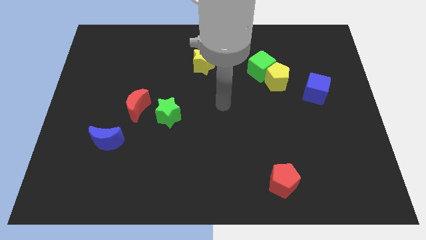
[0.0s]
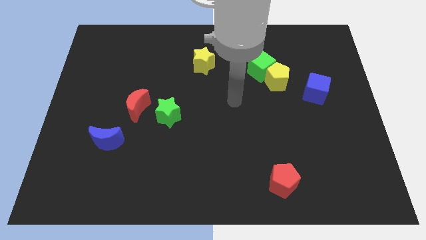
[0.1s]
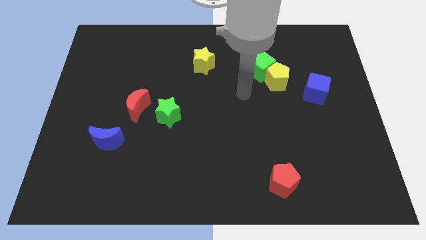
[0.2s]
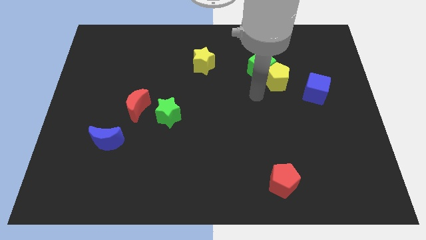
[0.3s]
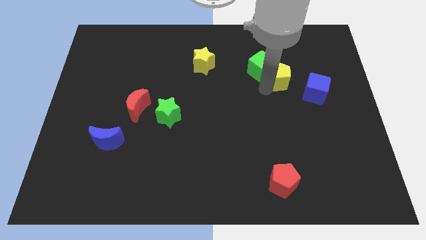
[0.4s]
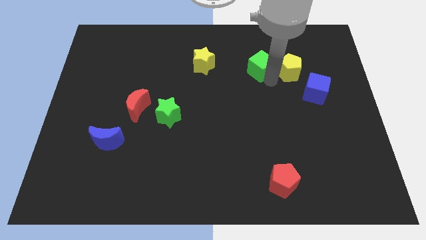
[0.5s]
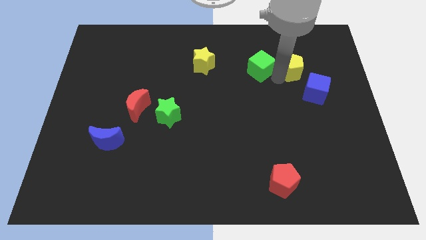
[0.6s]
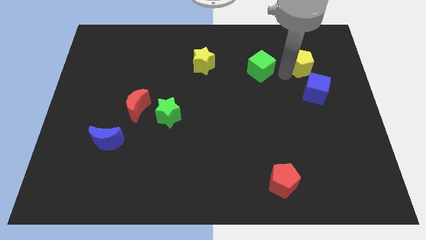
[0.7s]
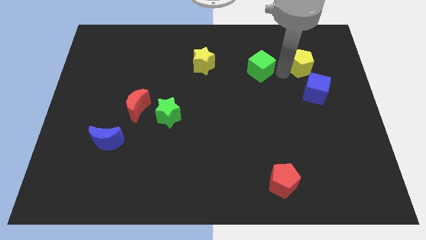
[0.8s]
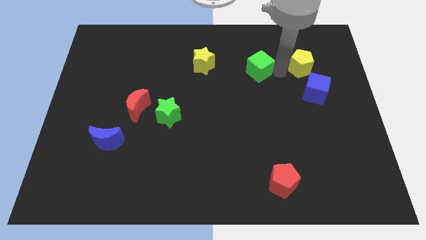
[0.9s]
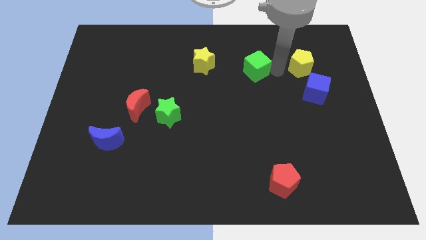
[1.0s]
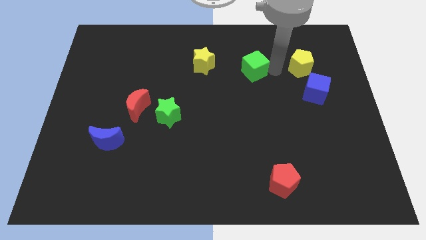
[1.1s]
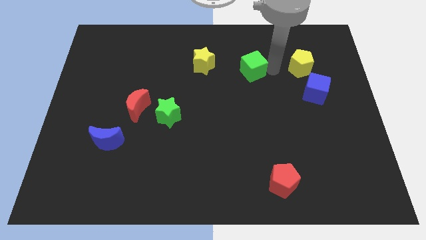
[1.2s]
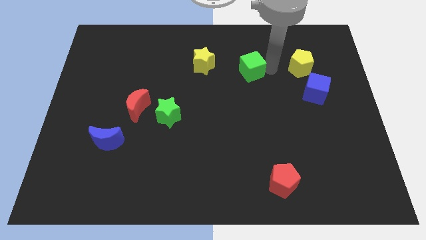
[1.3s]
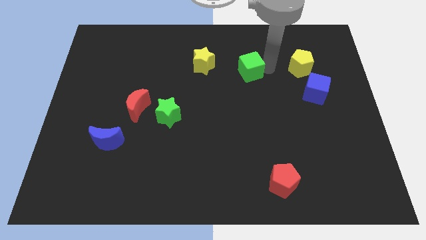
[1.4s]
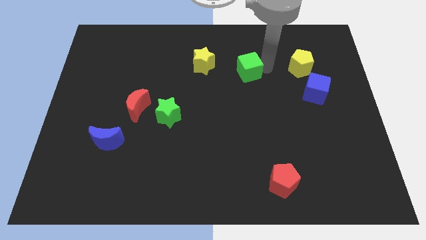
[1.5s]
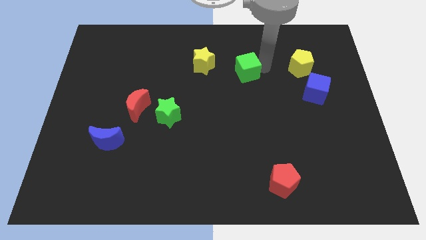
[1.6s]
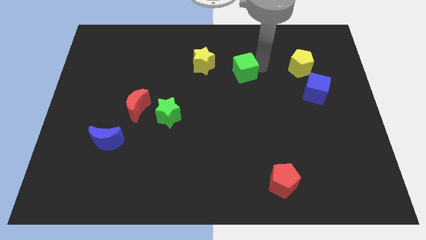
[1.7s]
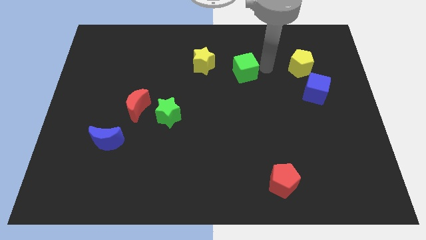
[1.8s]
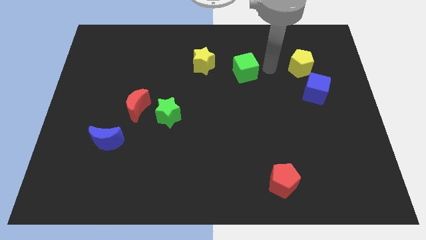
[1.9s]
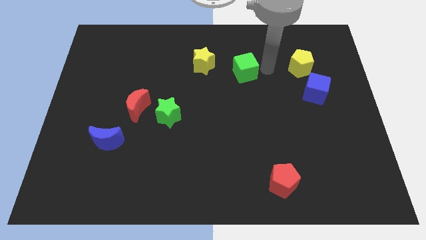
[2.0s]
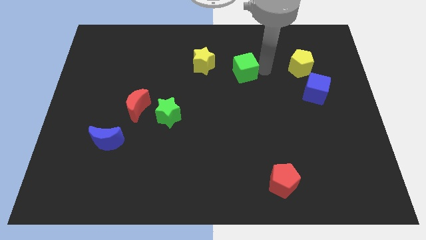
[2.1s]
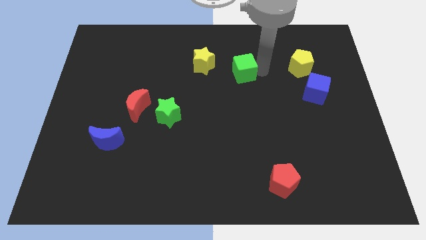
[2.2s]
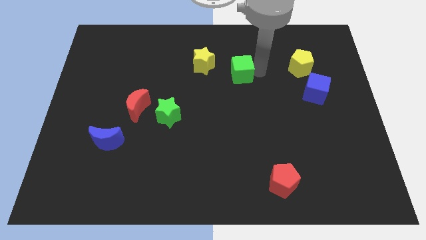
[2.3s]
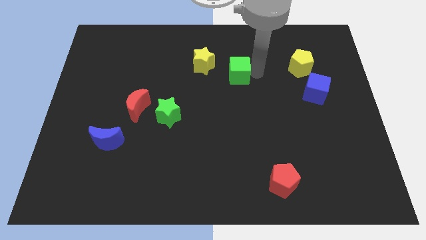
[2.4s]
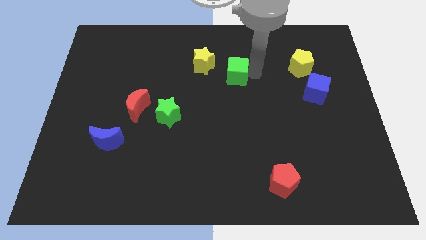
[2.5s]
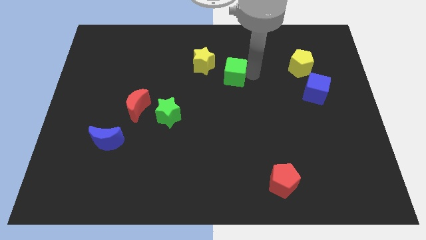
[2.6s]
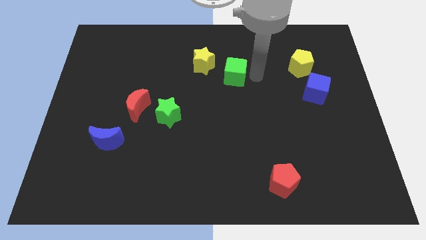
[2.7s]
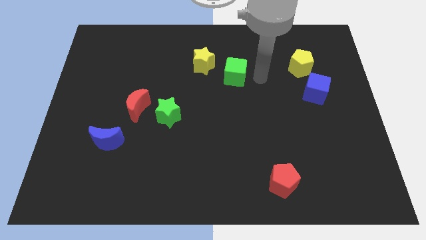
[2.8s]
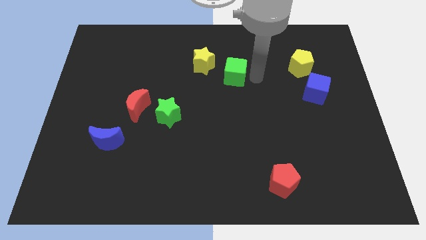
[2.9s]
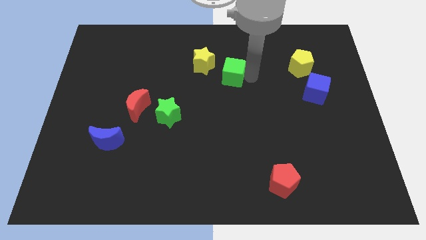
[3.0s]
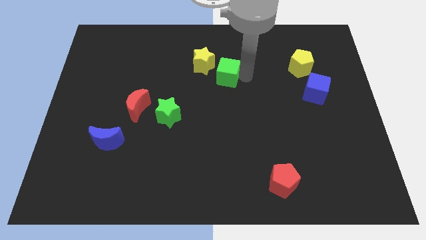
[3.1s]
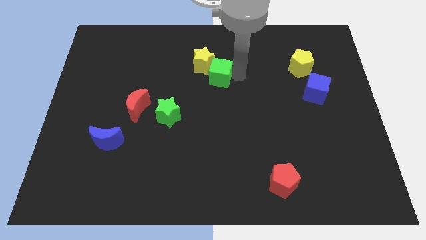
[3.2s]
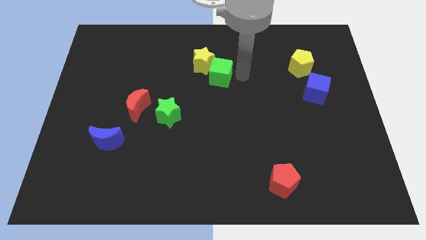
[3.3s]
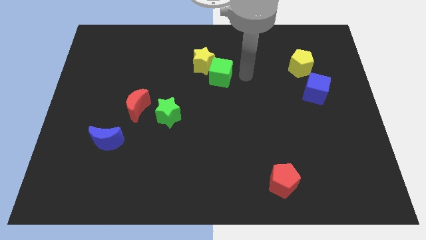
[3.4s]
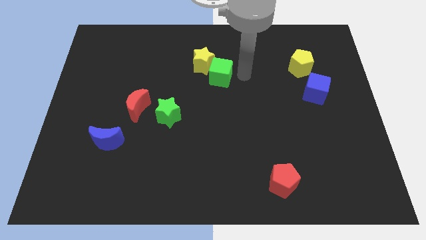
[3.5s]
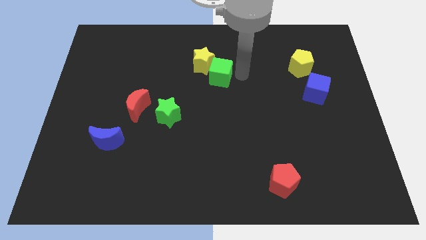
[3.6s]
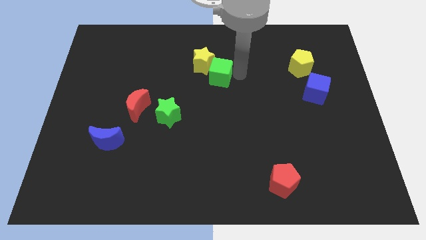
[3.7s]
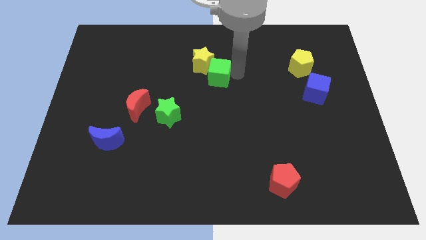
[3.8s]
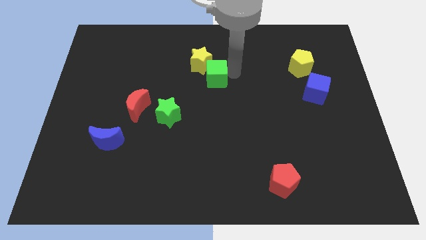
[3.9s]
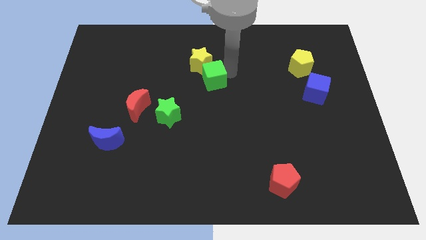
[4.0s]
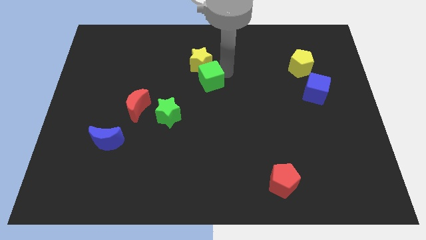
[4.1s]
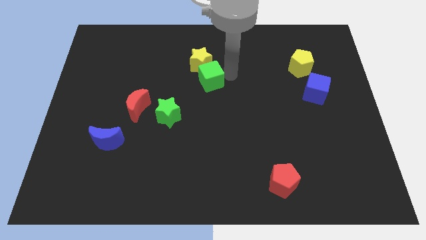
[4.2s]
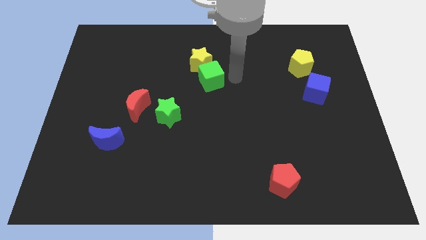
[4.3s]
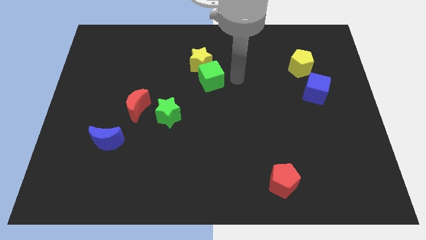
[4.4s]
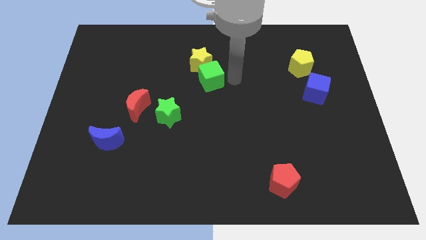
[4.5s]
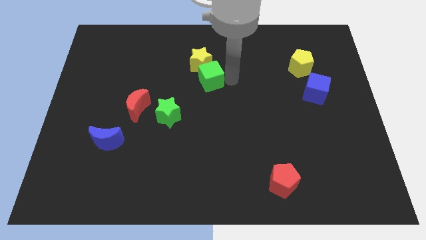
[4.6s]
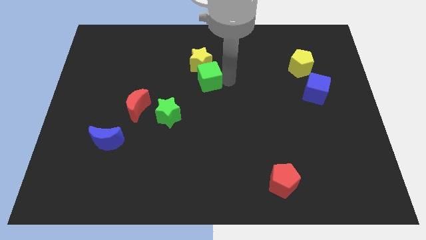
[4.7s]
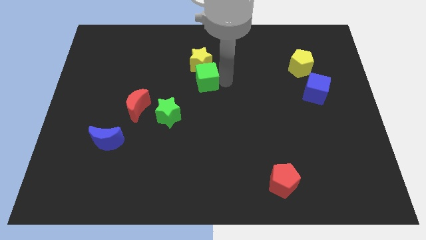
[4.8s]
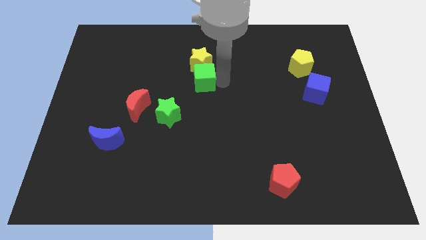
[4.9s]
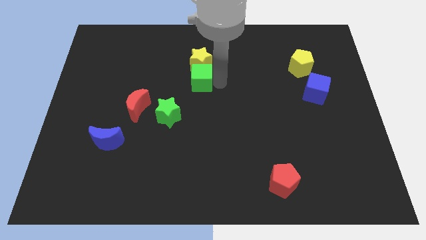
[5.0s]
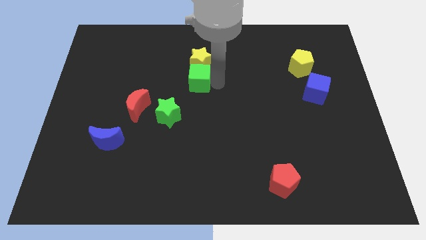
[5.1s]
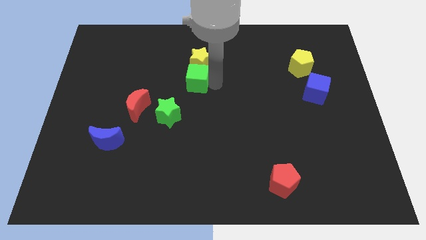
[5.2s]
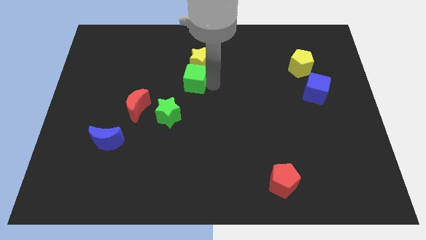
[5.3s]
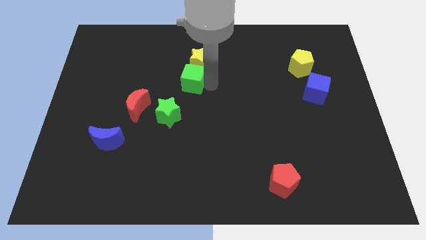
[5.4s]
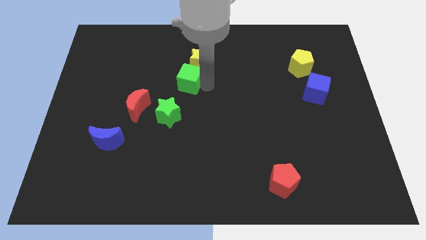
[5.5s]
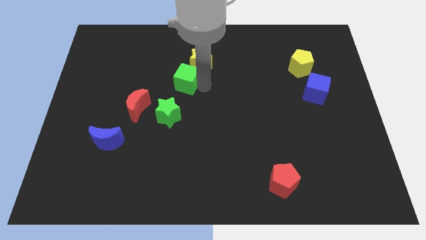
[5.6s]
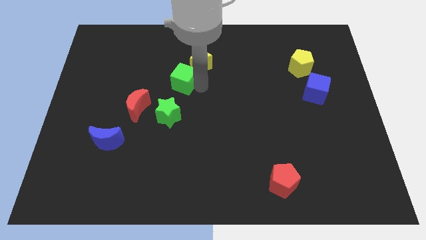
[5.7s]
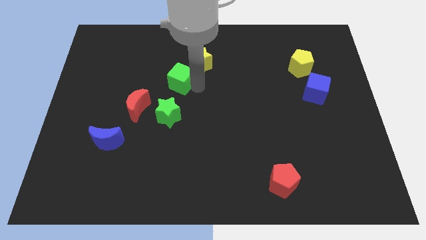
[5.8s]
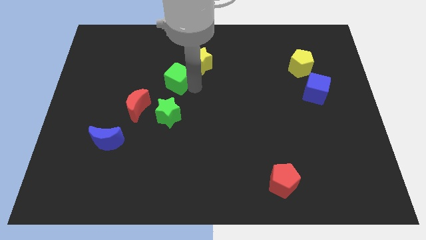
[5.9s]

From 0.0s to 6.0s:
move the green cube left

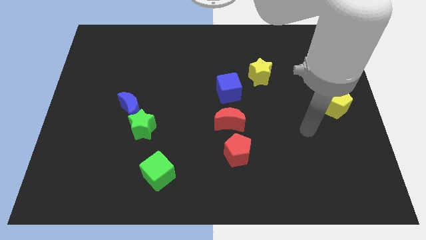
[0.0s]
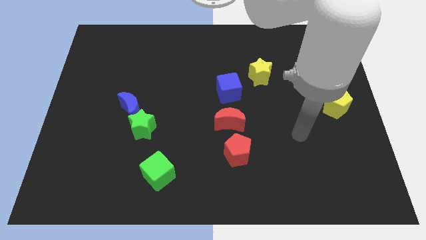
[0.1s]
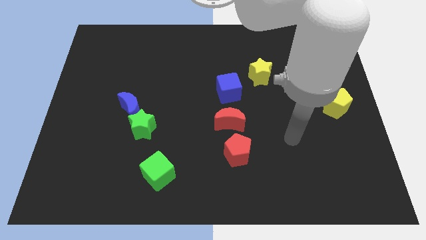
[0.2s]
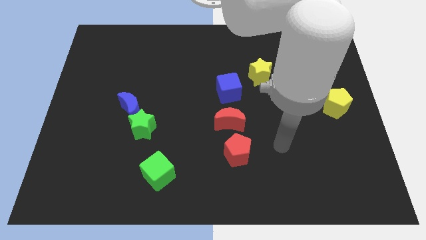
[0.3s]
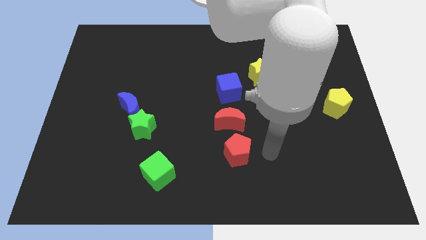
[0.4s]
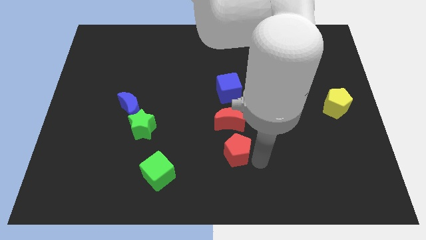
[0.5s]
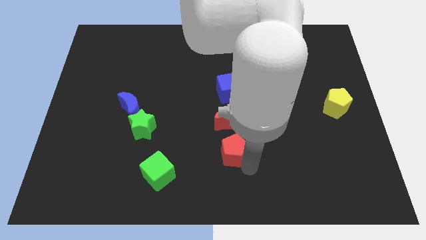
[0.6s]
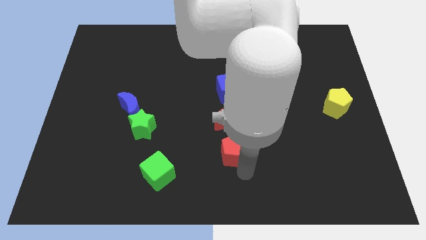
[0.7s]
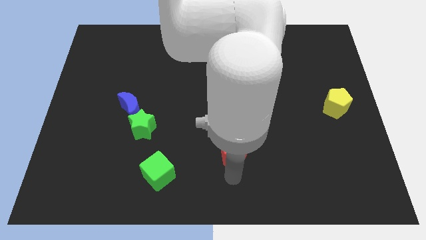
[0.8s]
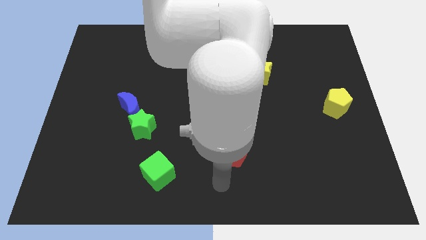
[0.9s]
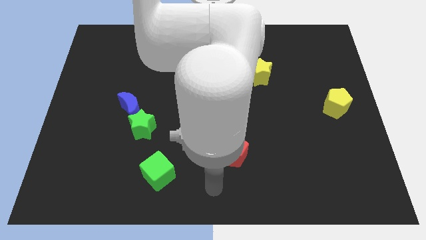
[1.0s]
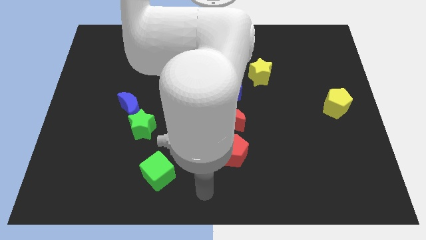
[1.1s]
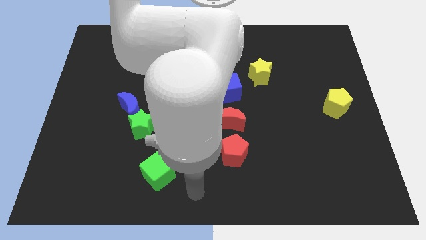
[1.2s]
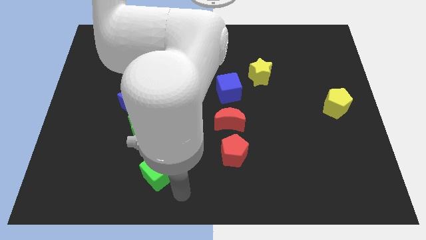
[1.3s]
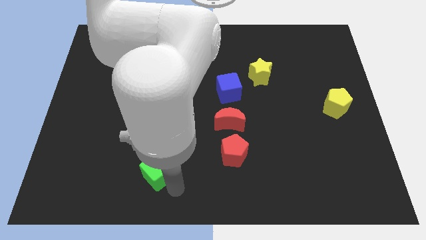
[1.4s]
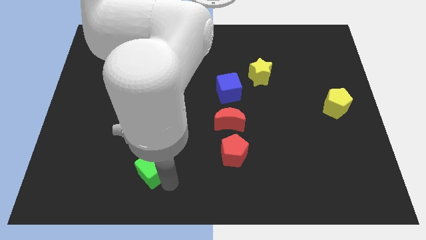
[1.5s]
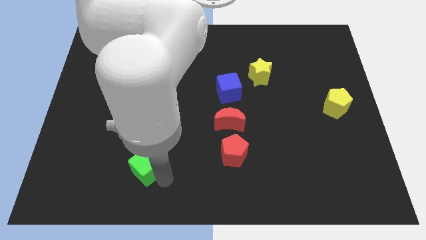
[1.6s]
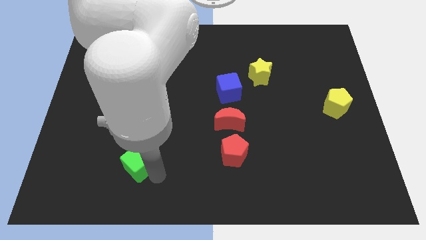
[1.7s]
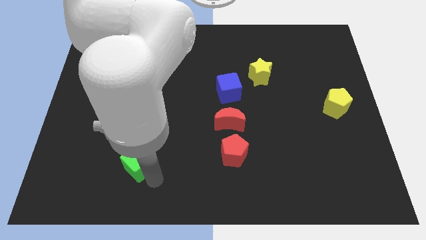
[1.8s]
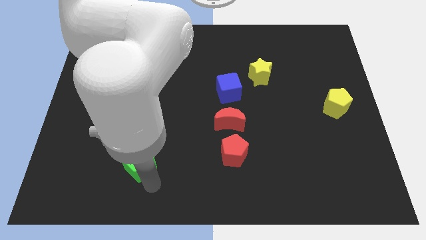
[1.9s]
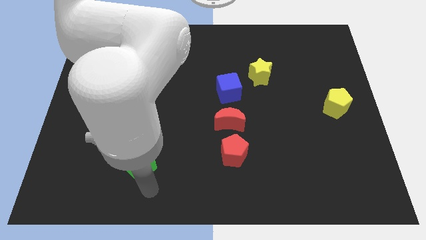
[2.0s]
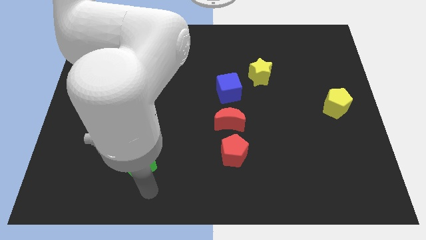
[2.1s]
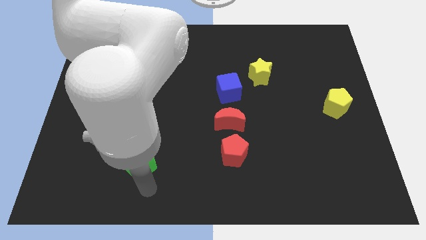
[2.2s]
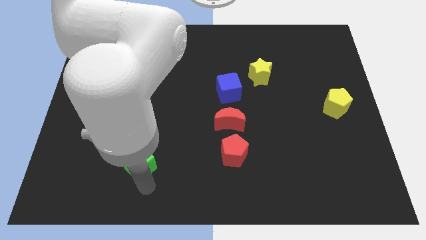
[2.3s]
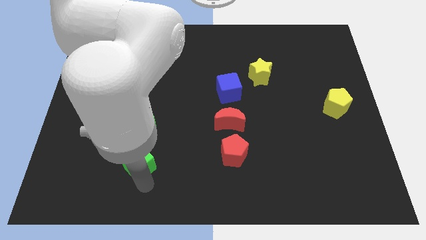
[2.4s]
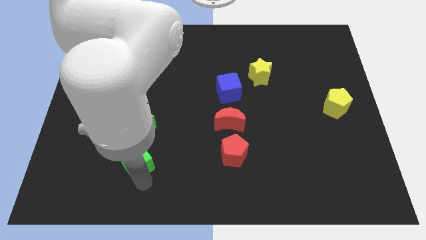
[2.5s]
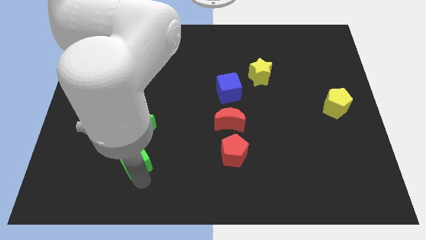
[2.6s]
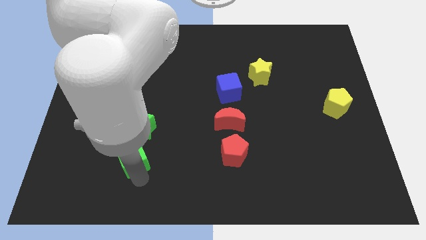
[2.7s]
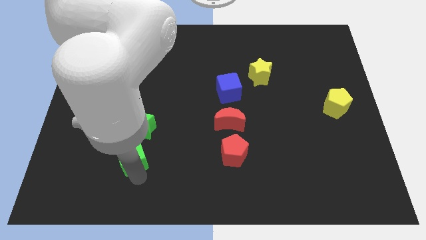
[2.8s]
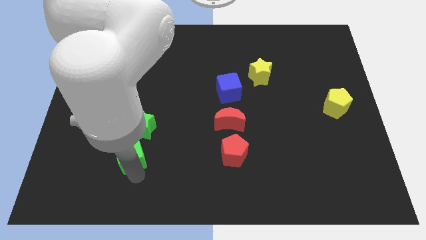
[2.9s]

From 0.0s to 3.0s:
slide the green cube a little upwards and then to the left
